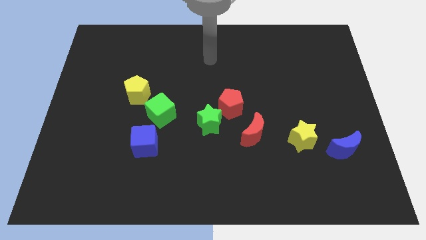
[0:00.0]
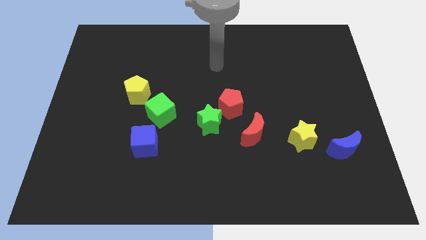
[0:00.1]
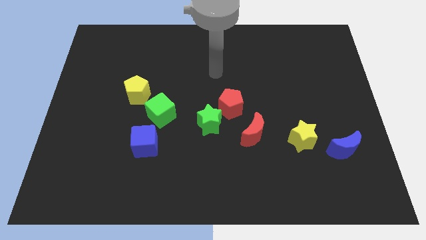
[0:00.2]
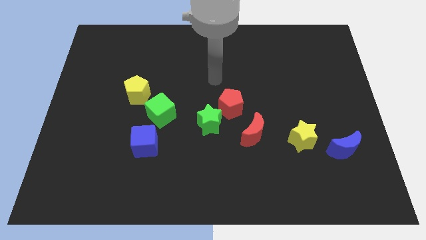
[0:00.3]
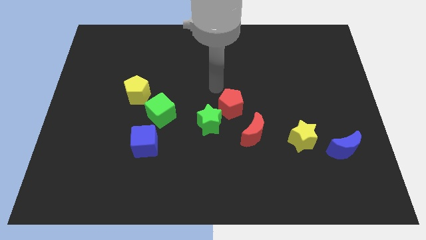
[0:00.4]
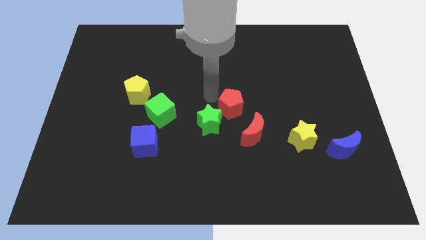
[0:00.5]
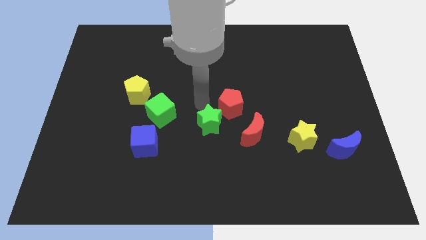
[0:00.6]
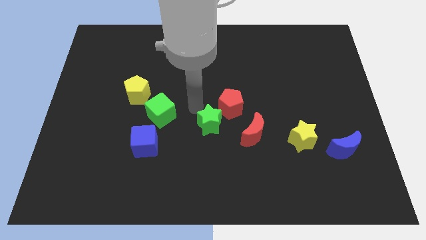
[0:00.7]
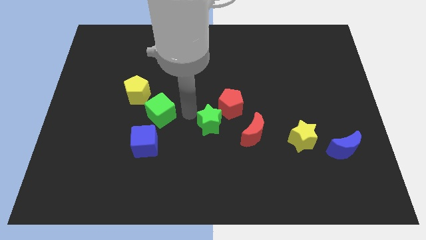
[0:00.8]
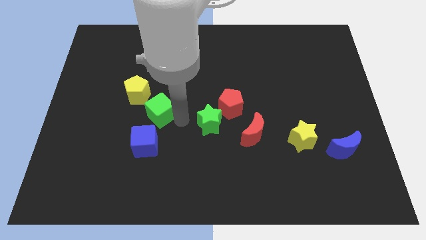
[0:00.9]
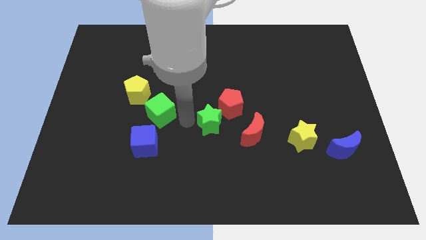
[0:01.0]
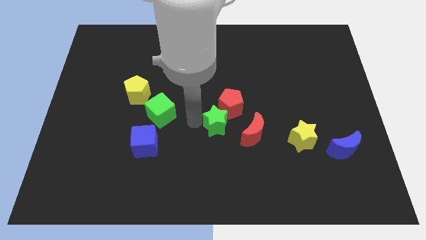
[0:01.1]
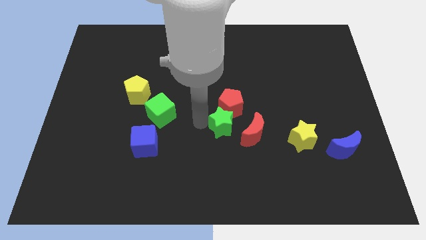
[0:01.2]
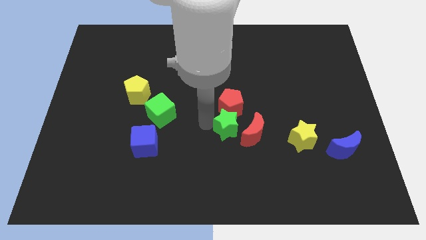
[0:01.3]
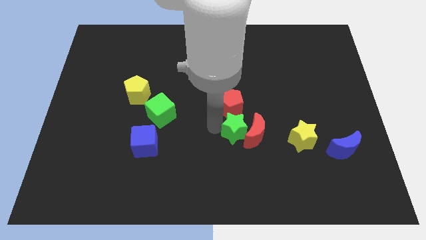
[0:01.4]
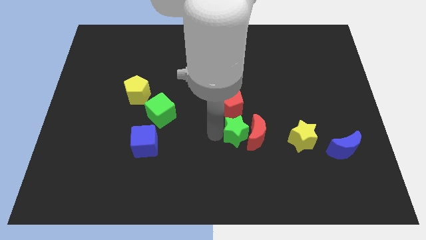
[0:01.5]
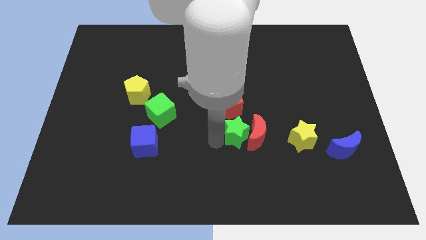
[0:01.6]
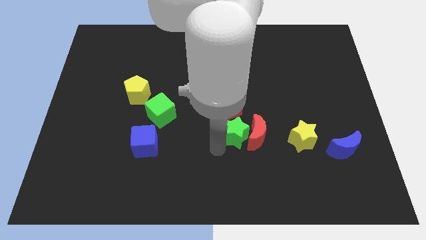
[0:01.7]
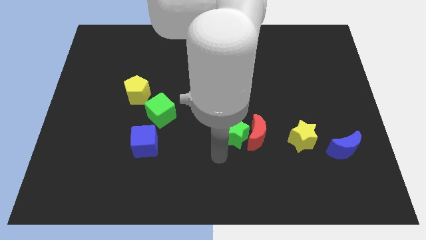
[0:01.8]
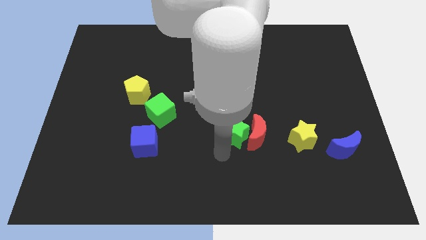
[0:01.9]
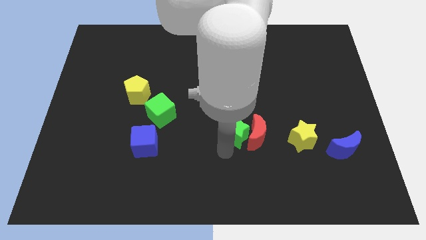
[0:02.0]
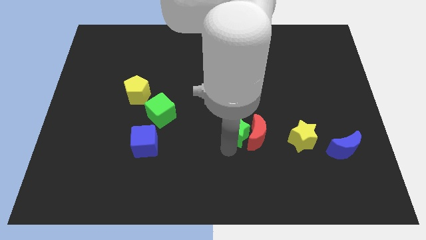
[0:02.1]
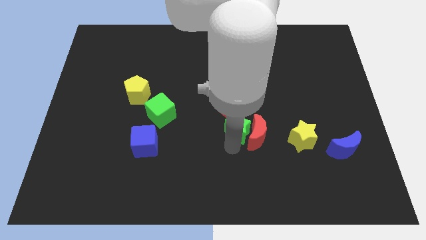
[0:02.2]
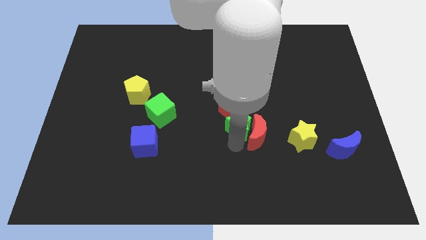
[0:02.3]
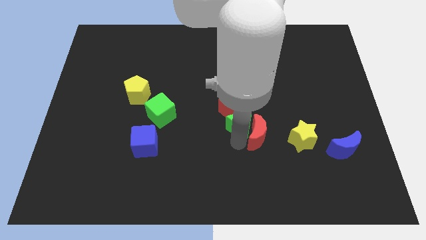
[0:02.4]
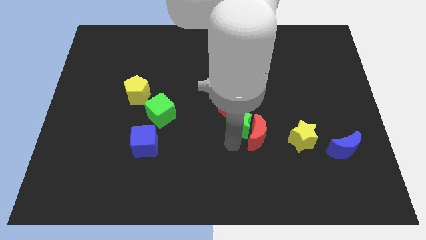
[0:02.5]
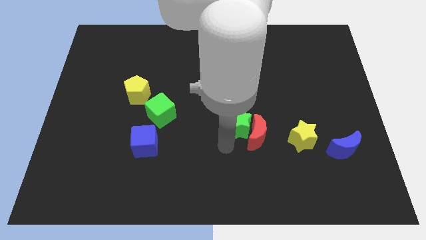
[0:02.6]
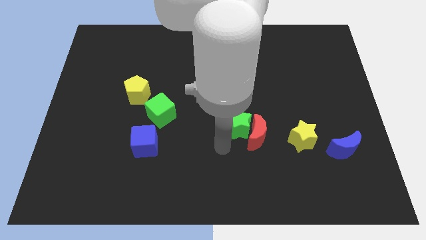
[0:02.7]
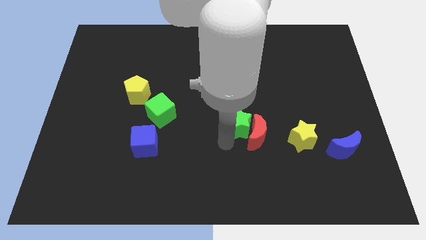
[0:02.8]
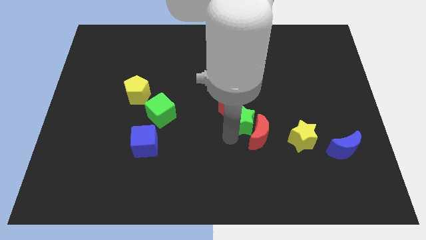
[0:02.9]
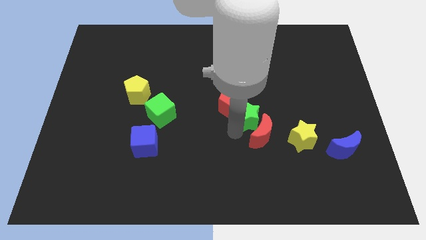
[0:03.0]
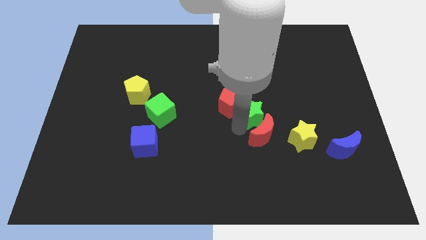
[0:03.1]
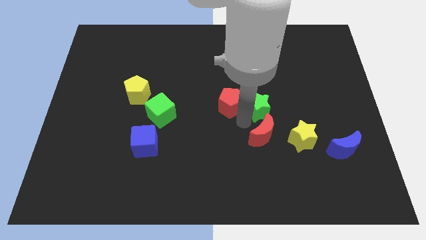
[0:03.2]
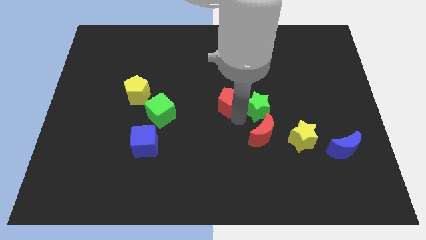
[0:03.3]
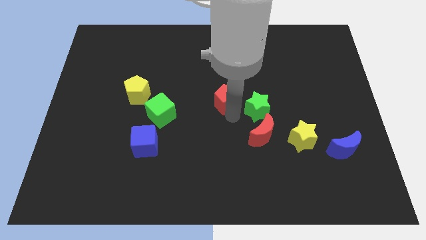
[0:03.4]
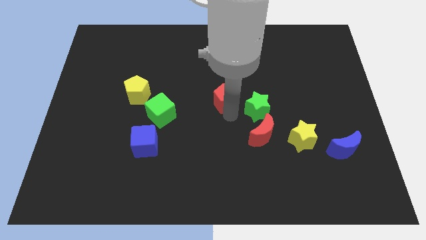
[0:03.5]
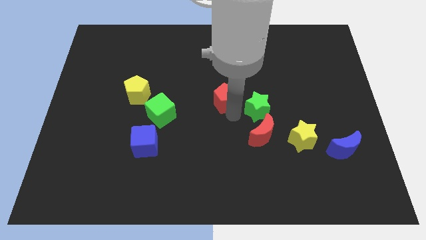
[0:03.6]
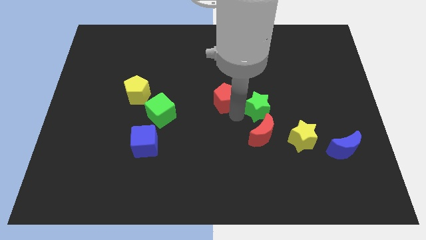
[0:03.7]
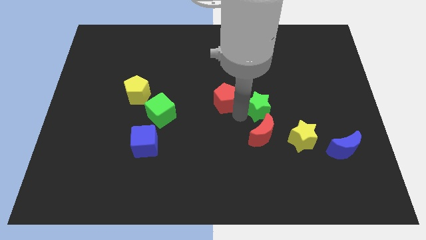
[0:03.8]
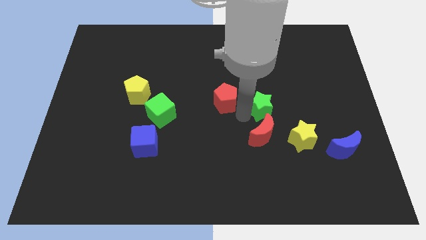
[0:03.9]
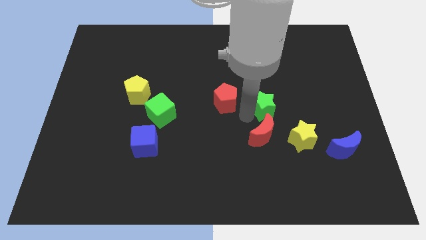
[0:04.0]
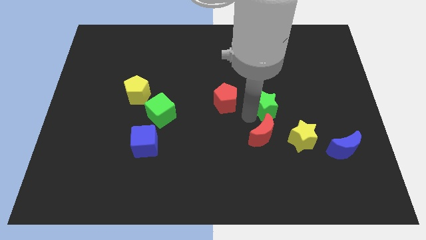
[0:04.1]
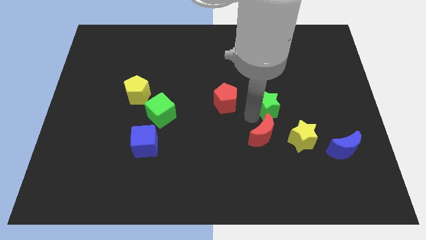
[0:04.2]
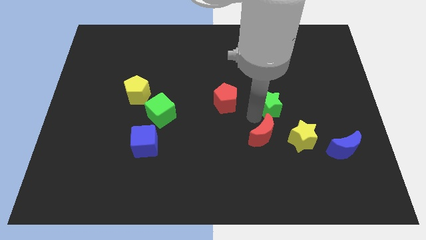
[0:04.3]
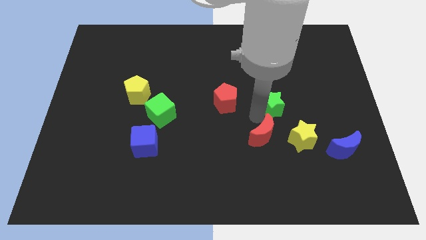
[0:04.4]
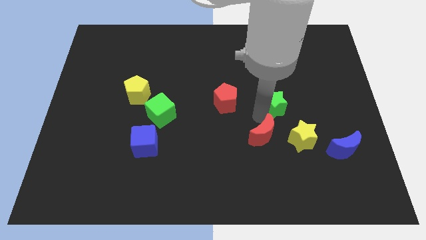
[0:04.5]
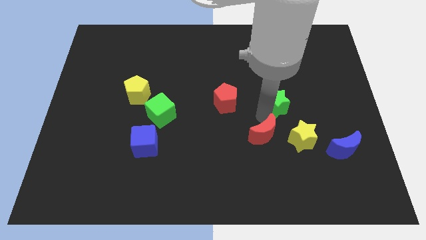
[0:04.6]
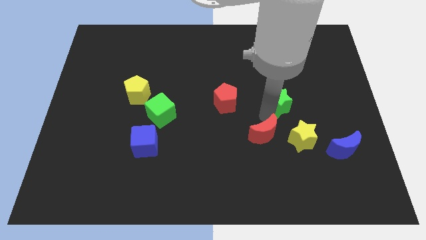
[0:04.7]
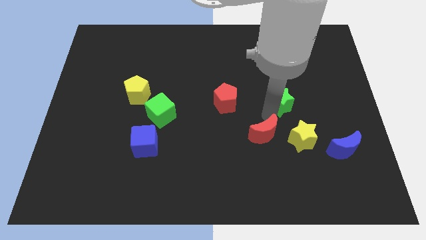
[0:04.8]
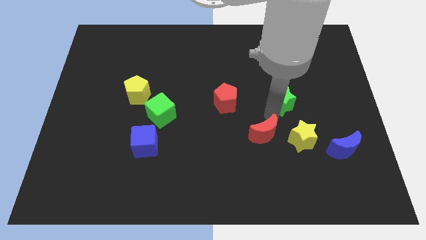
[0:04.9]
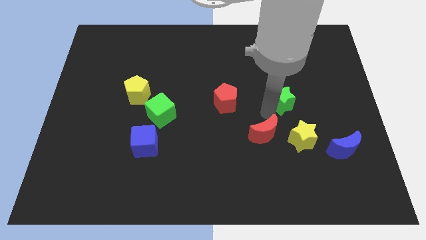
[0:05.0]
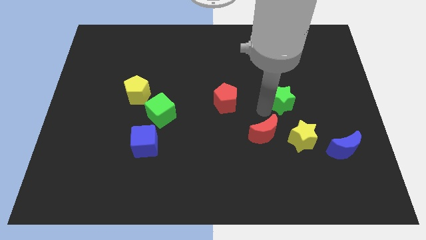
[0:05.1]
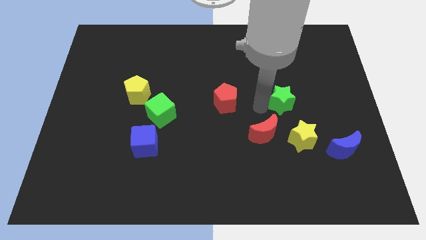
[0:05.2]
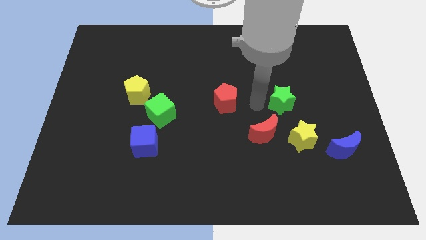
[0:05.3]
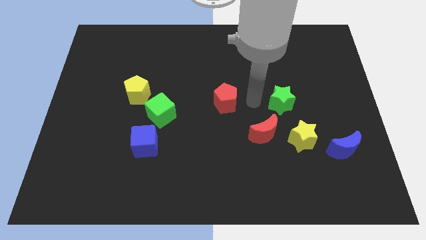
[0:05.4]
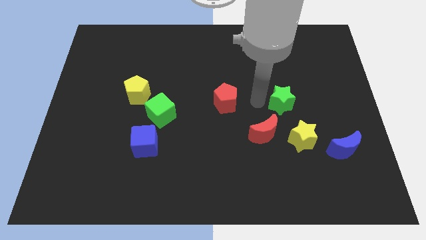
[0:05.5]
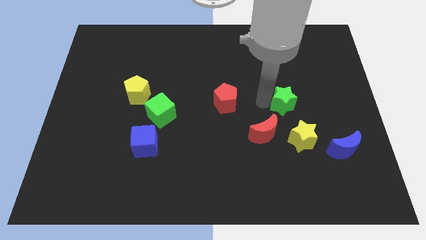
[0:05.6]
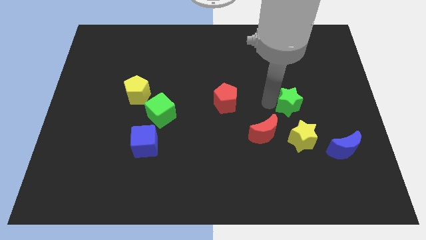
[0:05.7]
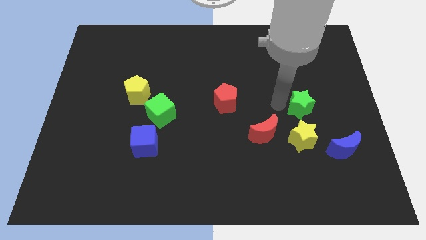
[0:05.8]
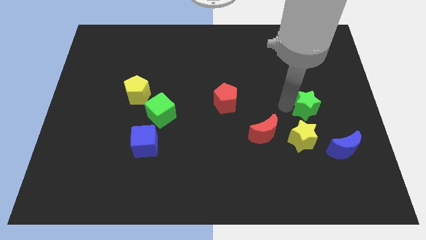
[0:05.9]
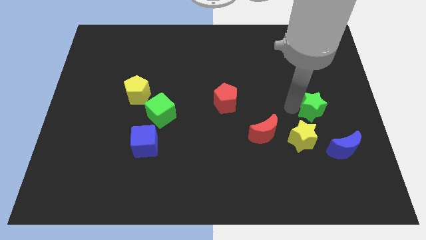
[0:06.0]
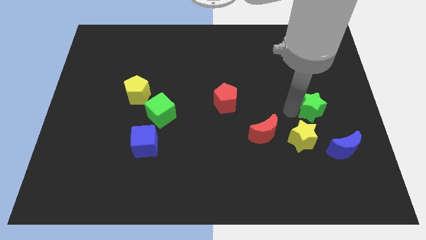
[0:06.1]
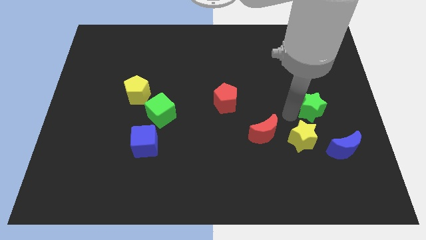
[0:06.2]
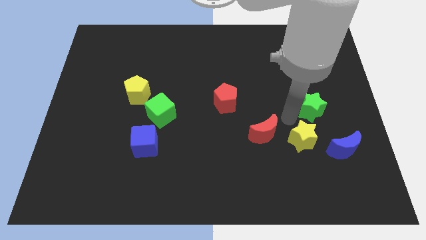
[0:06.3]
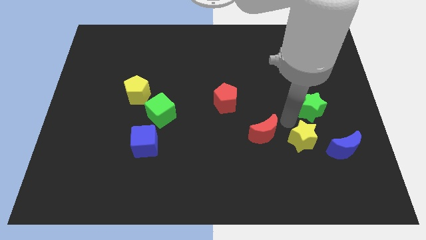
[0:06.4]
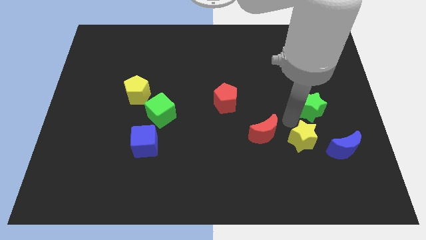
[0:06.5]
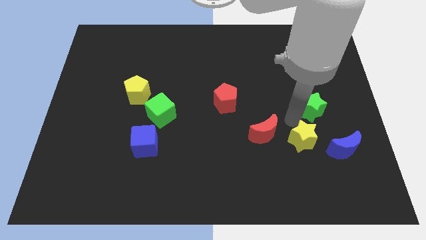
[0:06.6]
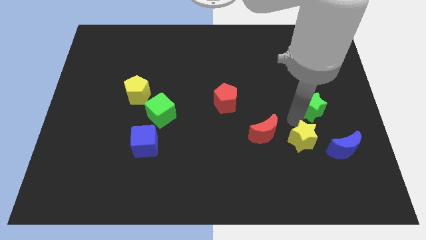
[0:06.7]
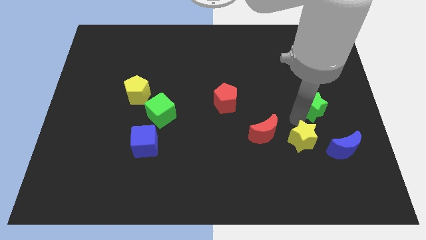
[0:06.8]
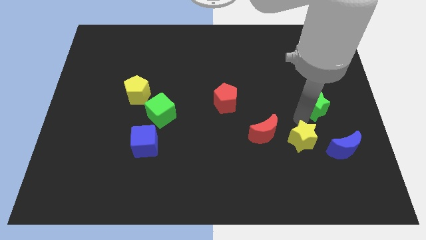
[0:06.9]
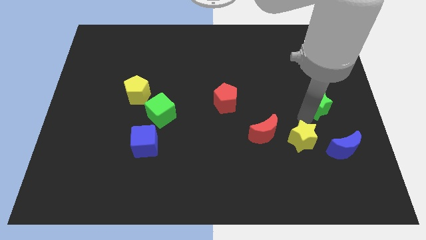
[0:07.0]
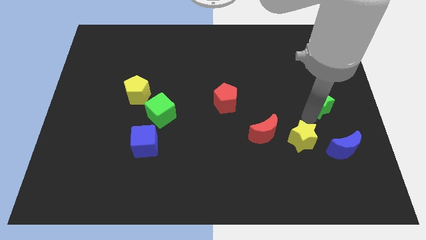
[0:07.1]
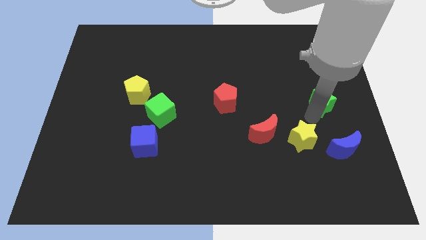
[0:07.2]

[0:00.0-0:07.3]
slide the green star to the right side
